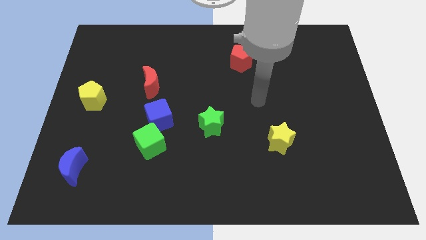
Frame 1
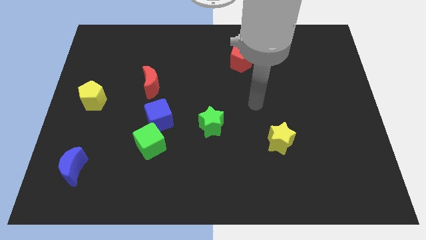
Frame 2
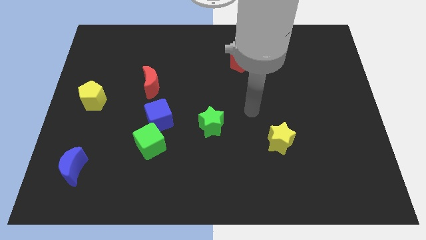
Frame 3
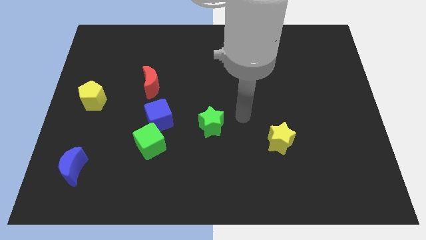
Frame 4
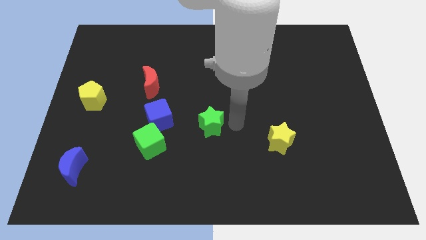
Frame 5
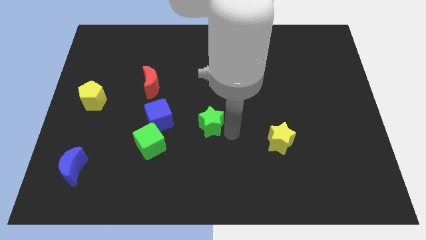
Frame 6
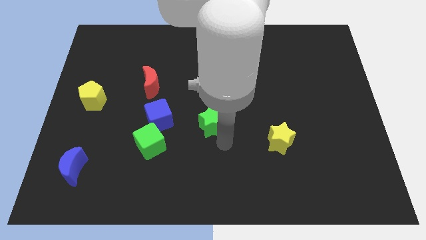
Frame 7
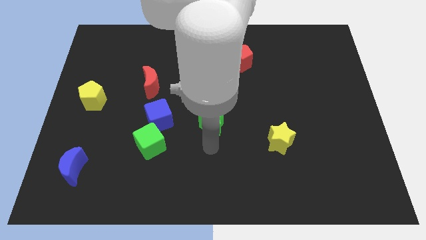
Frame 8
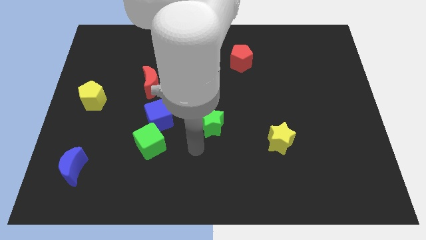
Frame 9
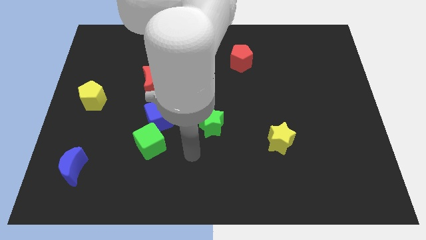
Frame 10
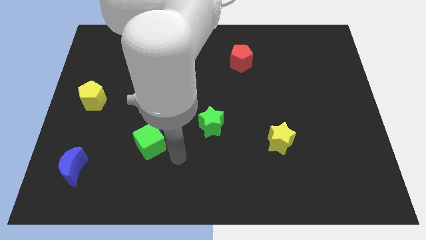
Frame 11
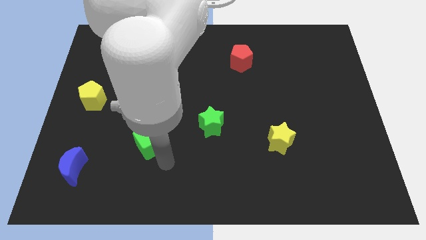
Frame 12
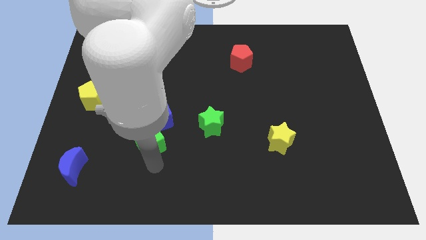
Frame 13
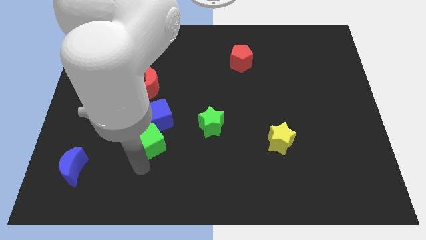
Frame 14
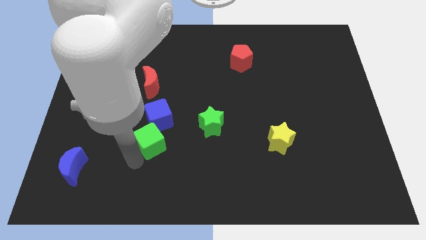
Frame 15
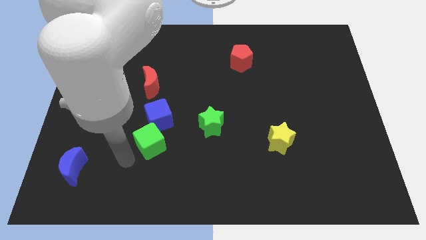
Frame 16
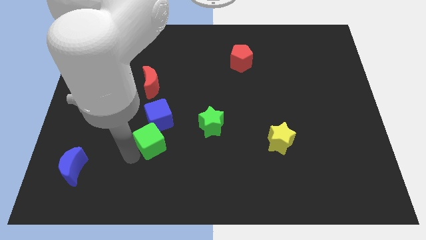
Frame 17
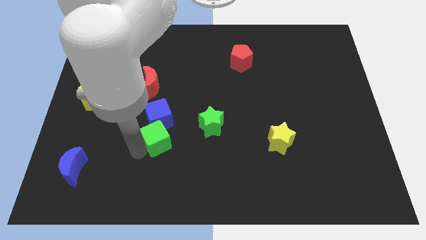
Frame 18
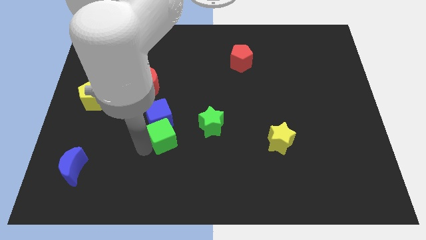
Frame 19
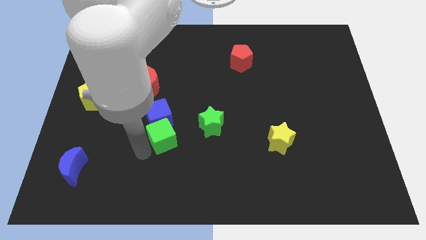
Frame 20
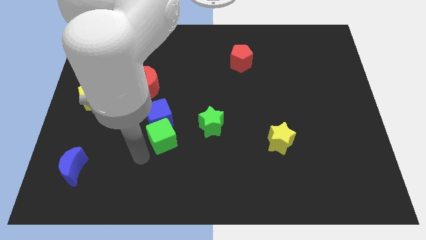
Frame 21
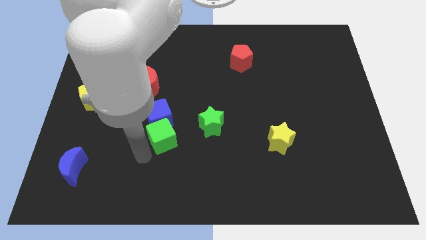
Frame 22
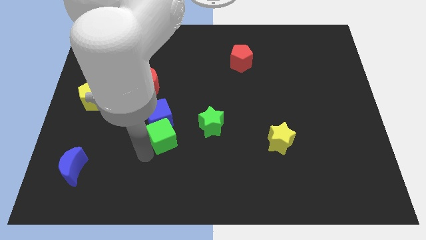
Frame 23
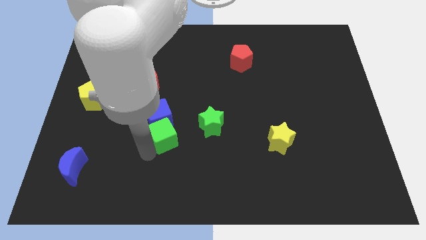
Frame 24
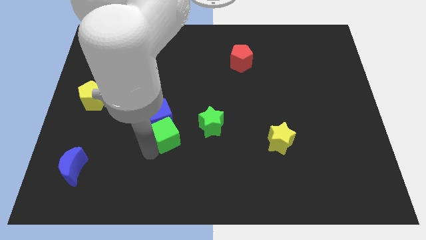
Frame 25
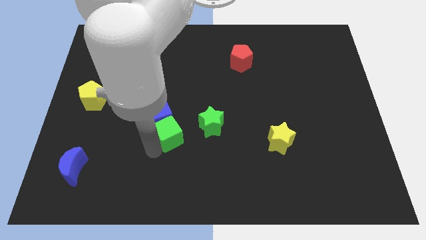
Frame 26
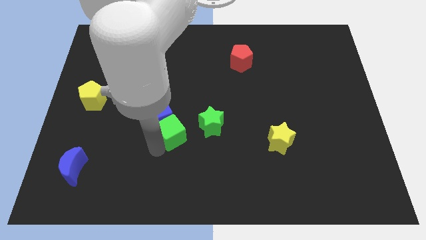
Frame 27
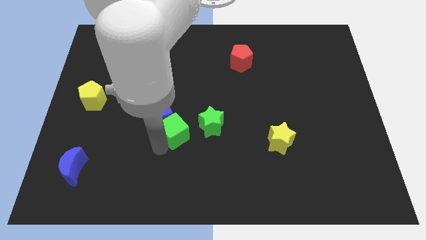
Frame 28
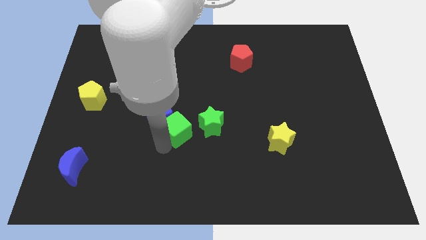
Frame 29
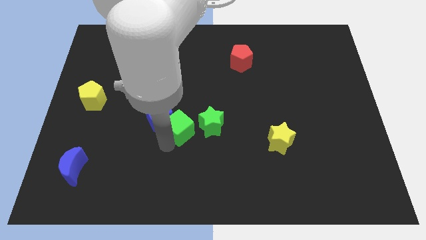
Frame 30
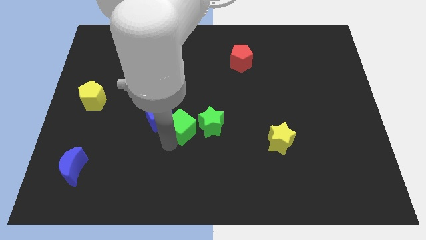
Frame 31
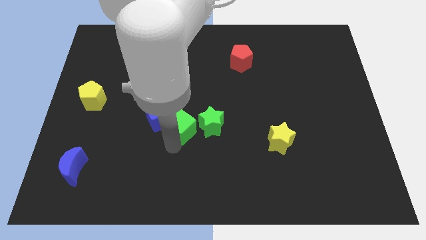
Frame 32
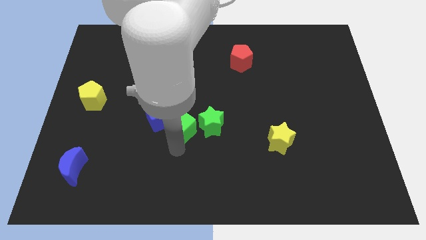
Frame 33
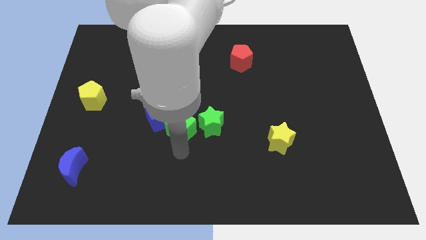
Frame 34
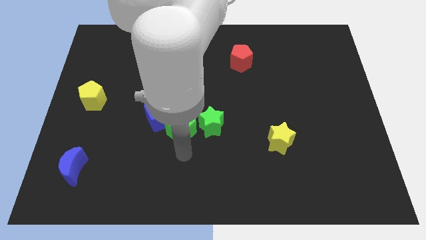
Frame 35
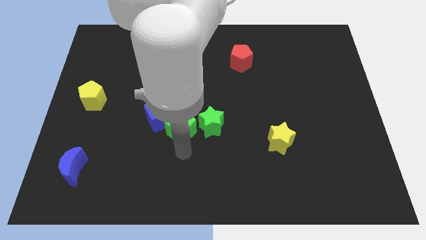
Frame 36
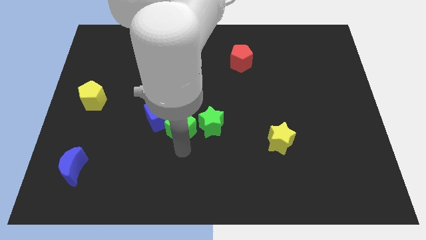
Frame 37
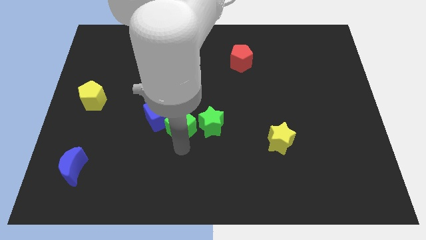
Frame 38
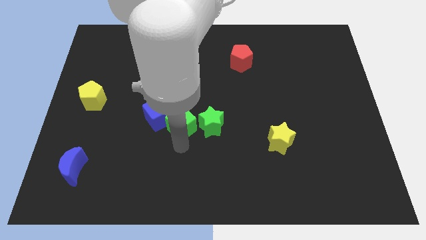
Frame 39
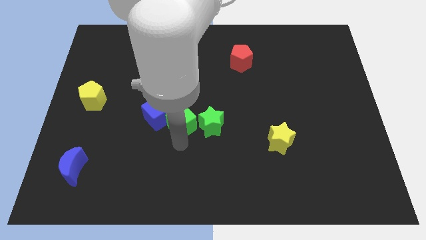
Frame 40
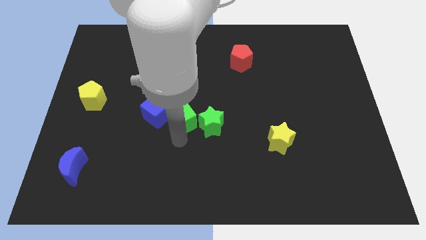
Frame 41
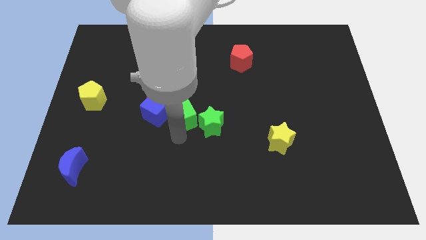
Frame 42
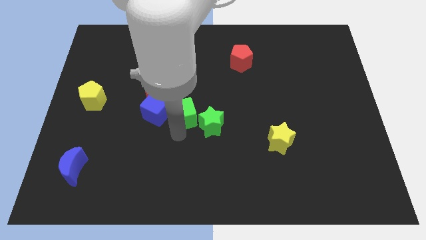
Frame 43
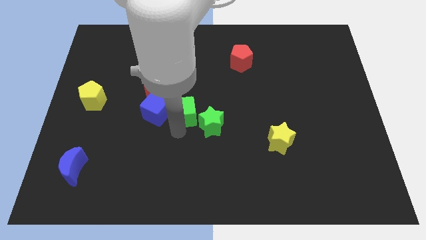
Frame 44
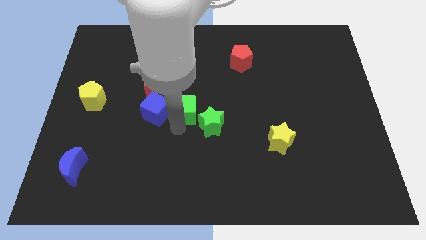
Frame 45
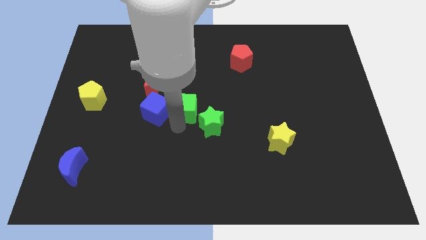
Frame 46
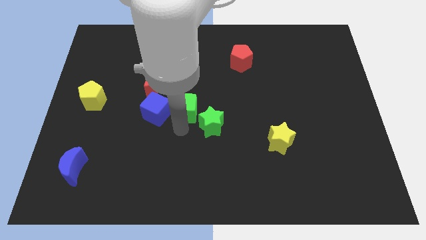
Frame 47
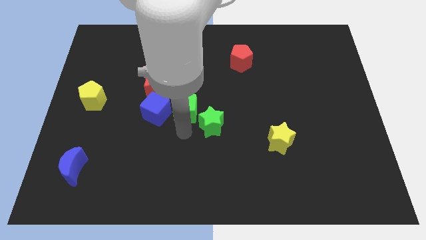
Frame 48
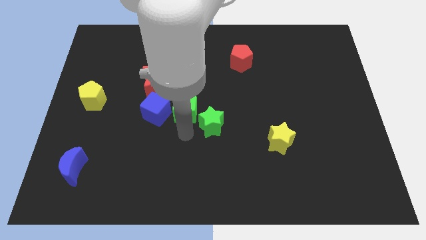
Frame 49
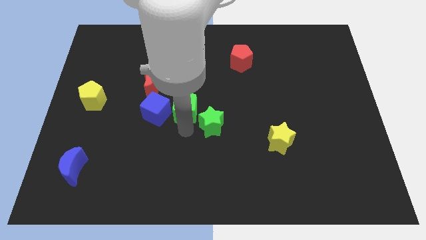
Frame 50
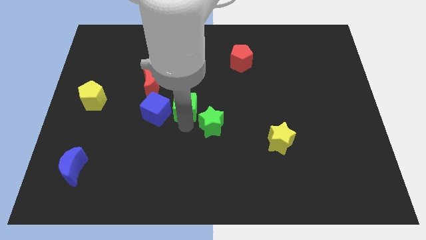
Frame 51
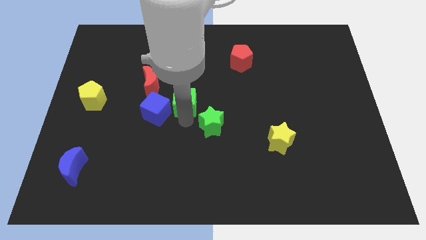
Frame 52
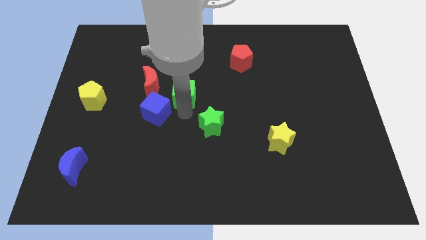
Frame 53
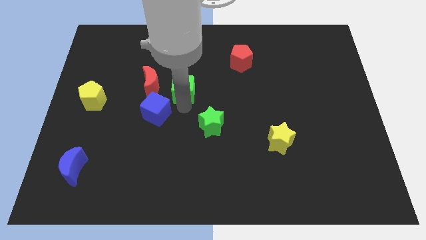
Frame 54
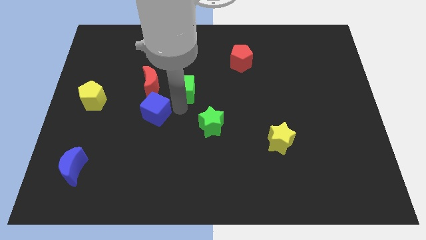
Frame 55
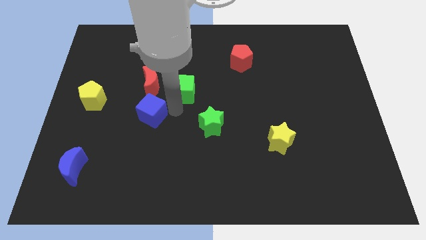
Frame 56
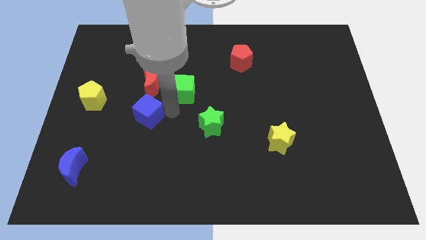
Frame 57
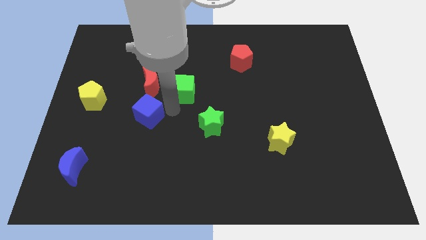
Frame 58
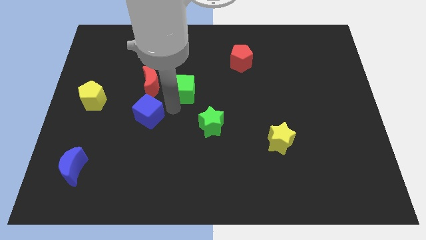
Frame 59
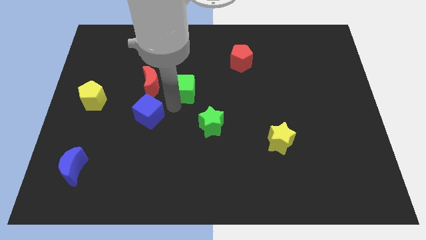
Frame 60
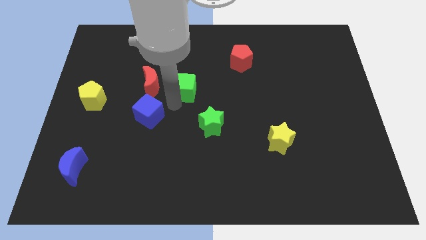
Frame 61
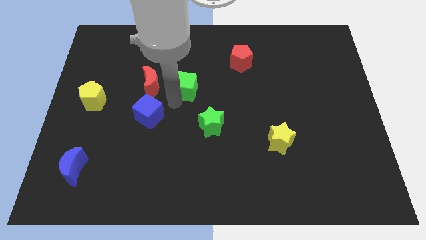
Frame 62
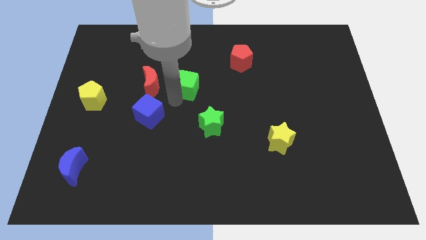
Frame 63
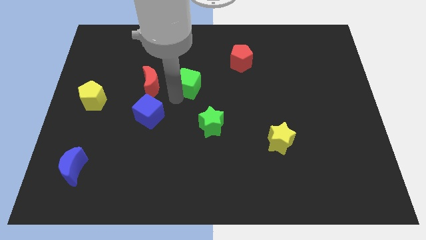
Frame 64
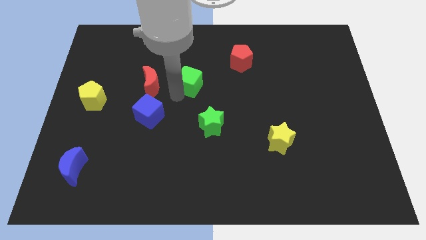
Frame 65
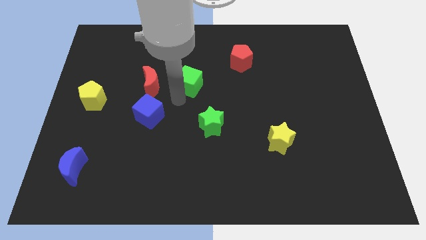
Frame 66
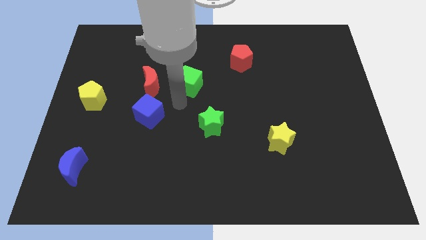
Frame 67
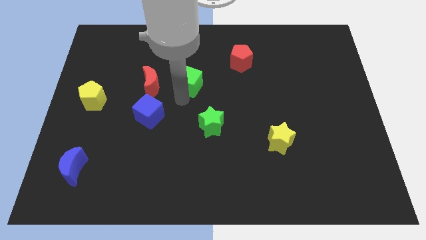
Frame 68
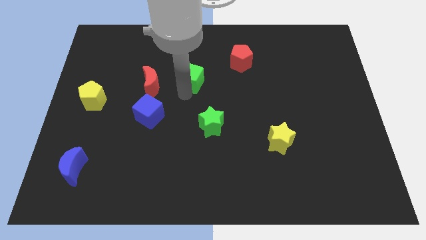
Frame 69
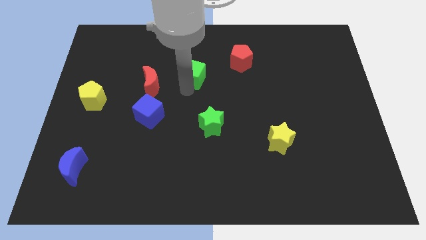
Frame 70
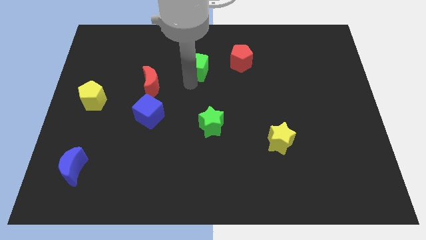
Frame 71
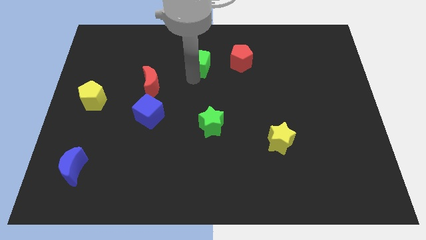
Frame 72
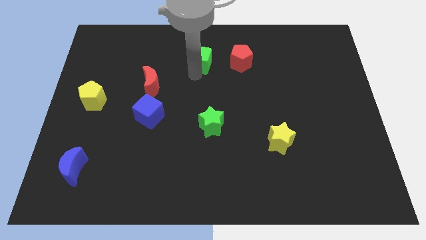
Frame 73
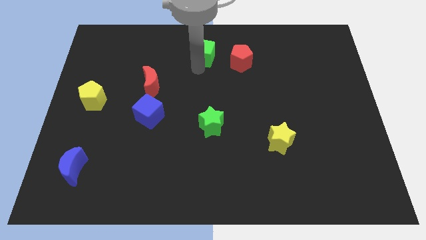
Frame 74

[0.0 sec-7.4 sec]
push the green cube to the towards your base
